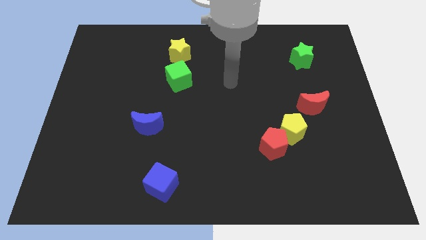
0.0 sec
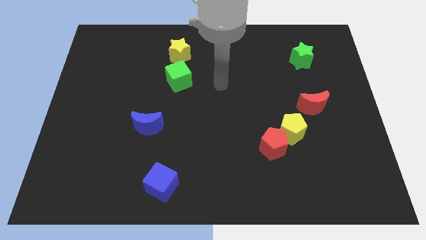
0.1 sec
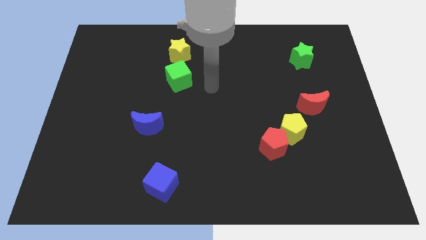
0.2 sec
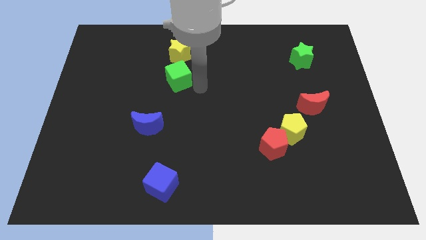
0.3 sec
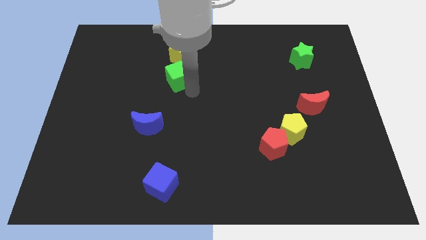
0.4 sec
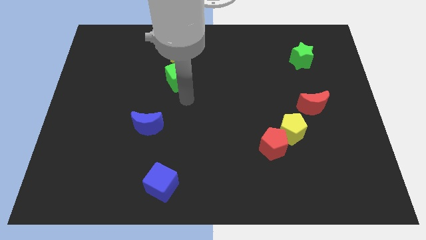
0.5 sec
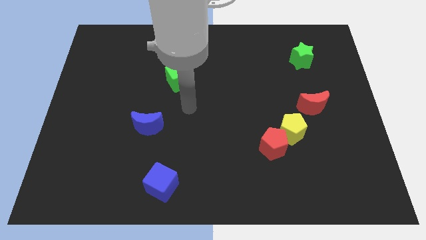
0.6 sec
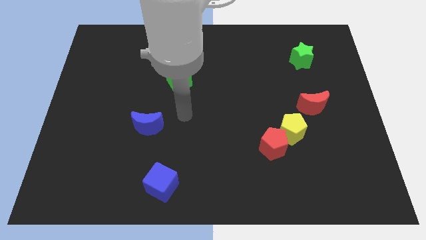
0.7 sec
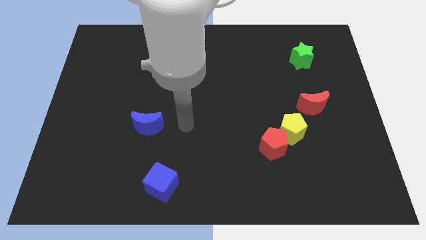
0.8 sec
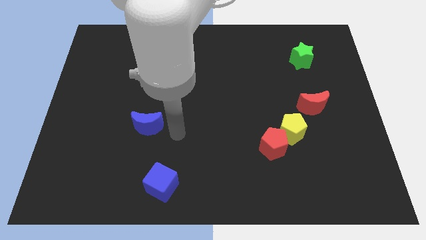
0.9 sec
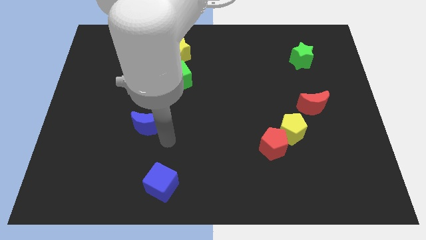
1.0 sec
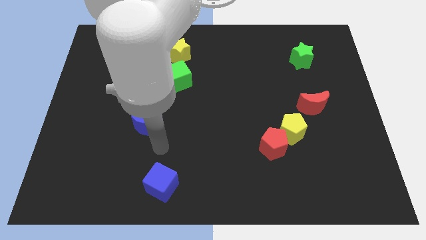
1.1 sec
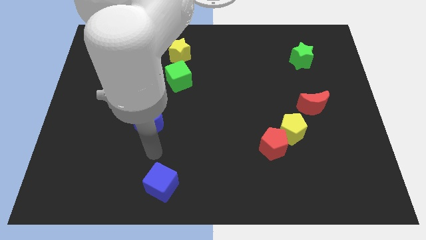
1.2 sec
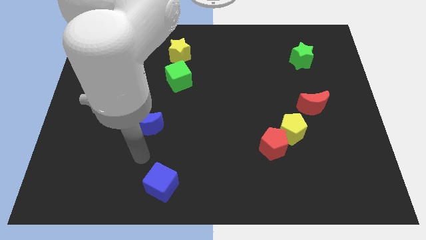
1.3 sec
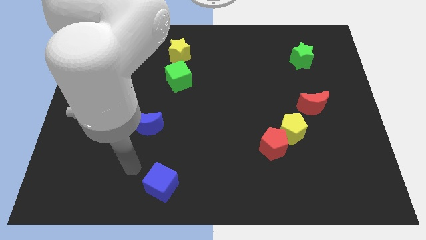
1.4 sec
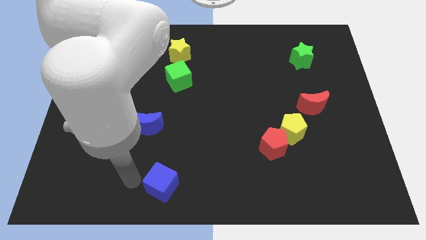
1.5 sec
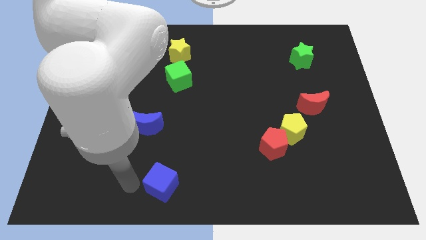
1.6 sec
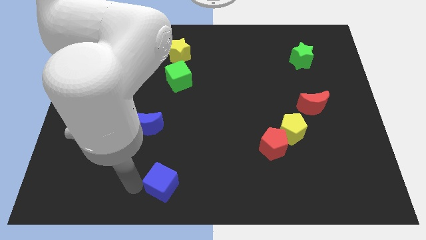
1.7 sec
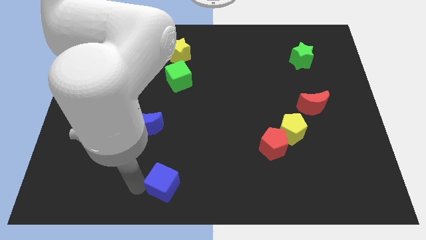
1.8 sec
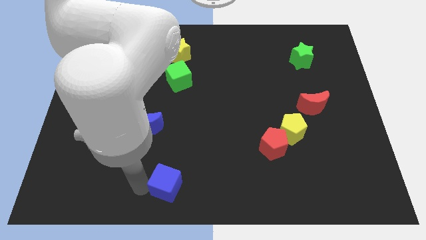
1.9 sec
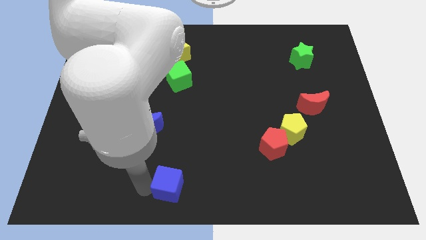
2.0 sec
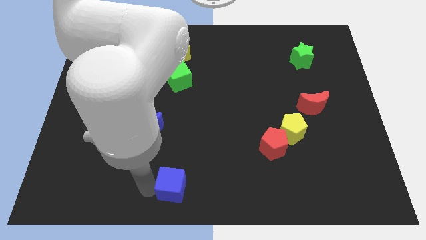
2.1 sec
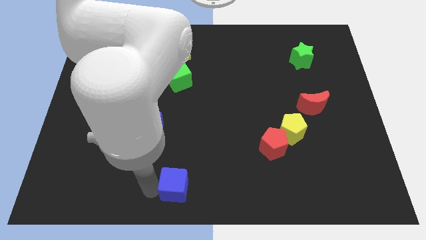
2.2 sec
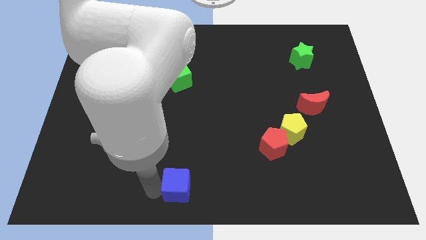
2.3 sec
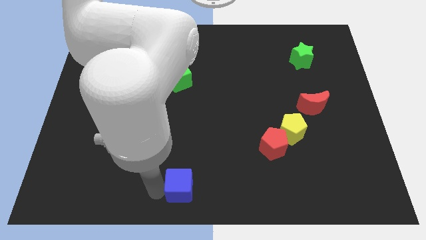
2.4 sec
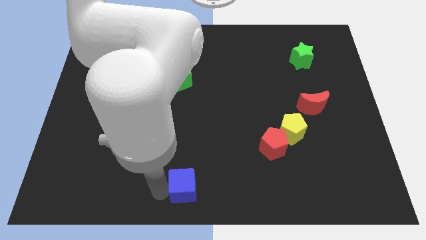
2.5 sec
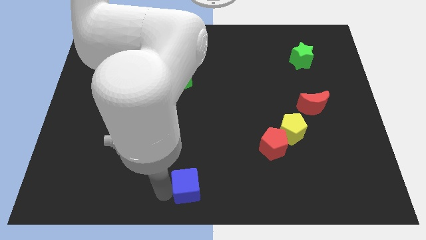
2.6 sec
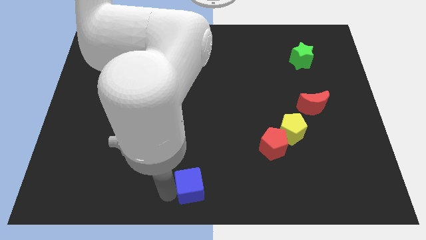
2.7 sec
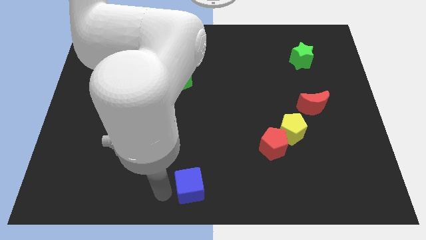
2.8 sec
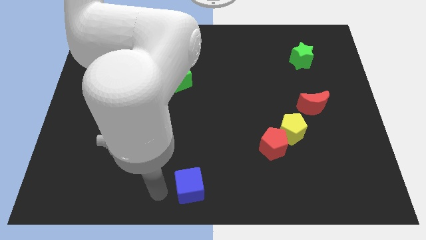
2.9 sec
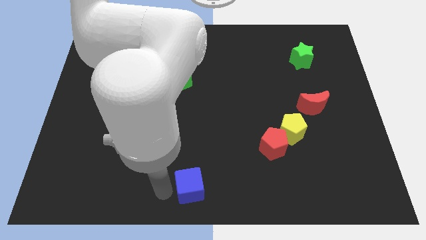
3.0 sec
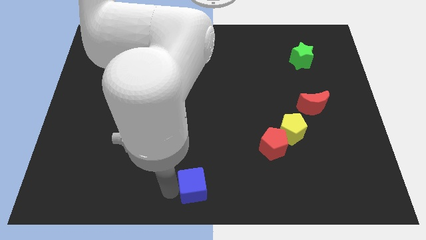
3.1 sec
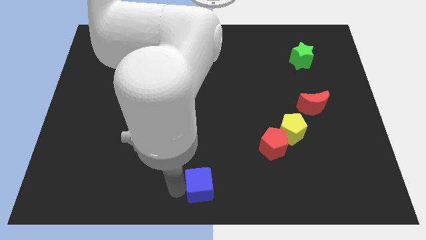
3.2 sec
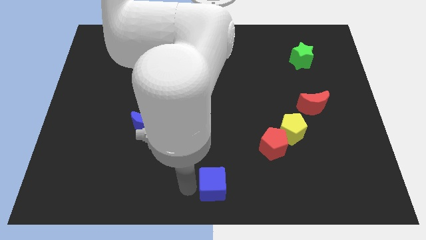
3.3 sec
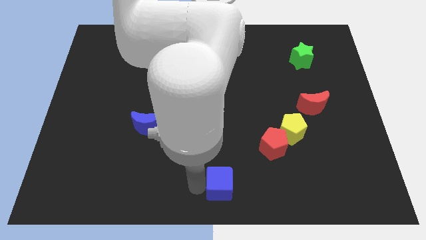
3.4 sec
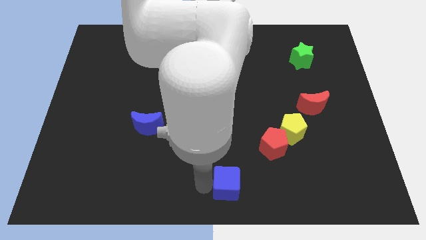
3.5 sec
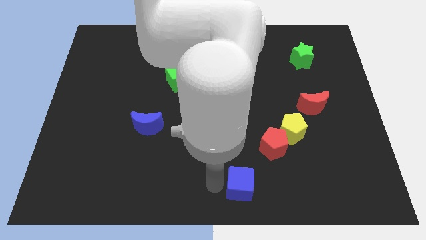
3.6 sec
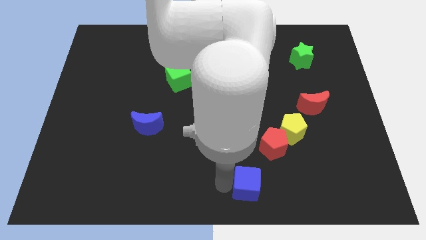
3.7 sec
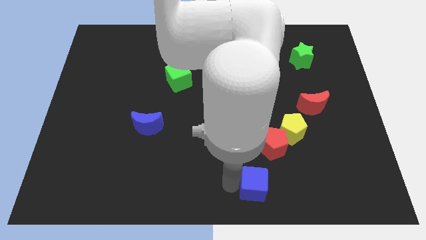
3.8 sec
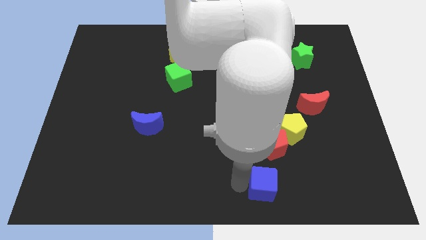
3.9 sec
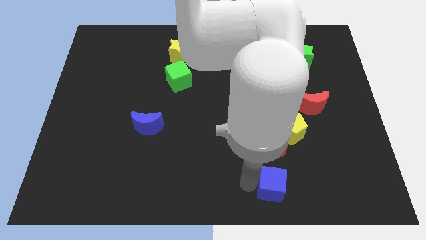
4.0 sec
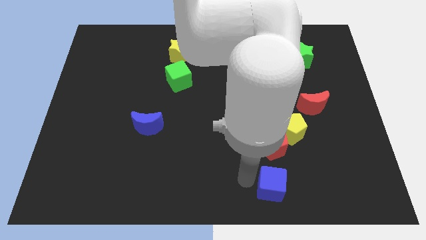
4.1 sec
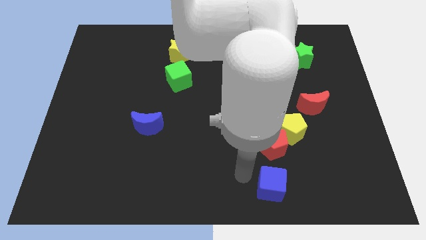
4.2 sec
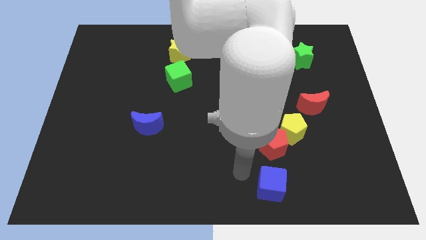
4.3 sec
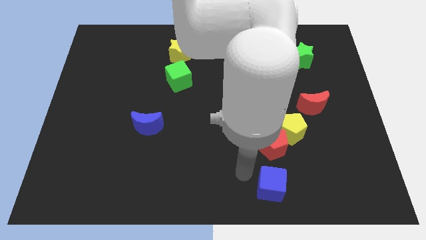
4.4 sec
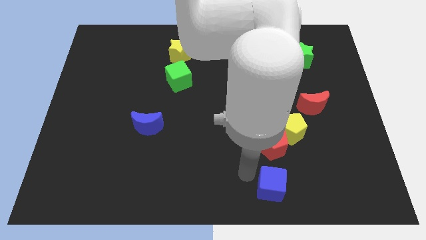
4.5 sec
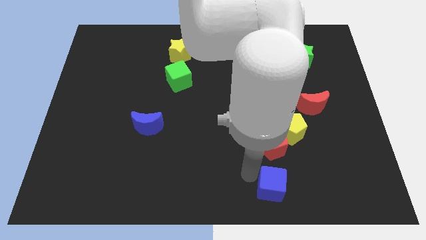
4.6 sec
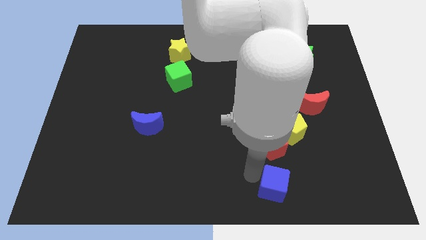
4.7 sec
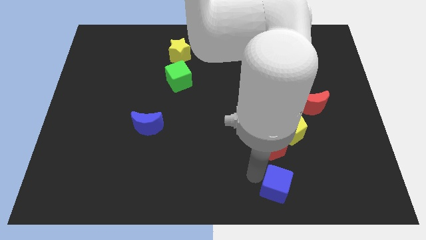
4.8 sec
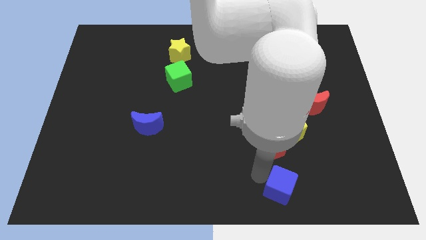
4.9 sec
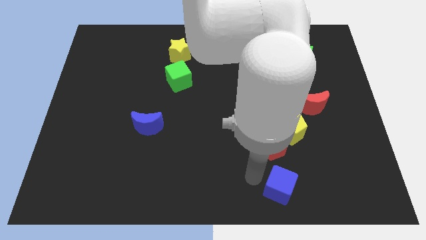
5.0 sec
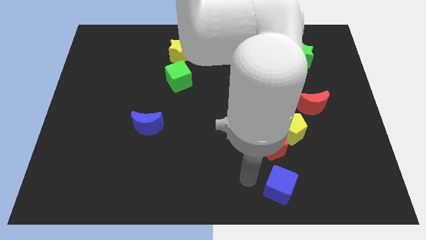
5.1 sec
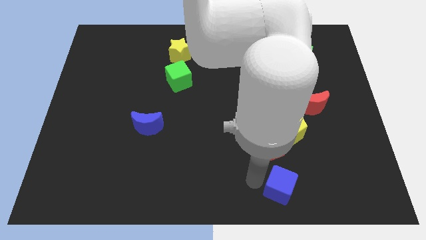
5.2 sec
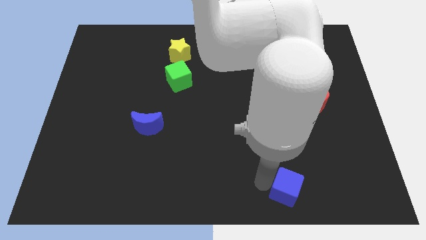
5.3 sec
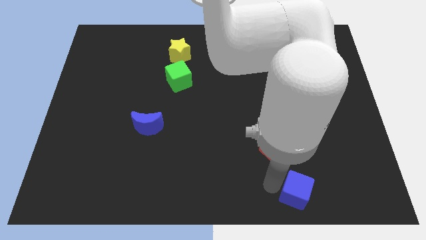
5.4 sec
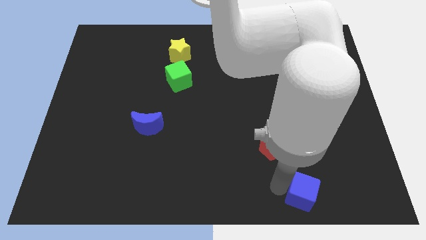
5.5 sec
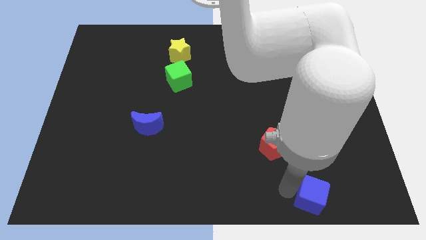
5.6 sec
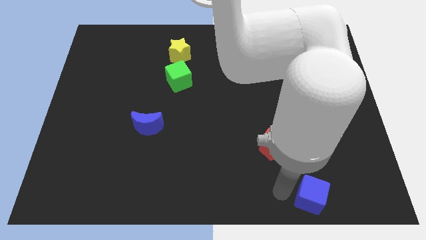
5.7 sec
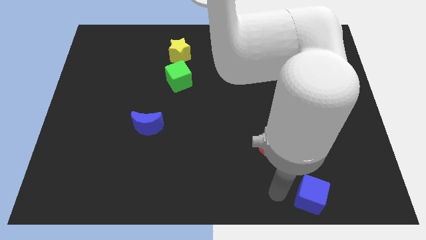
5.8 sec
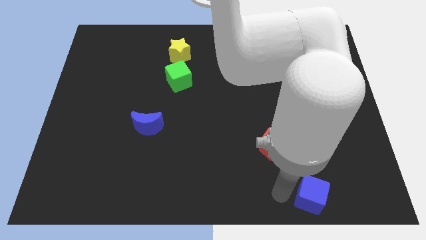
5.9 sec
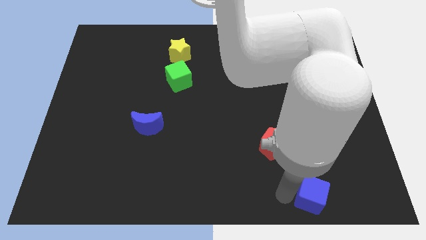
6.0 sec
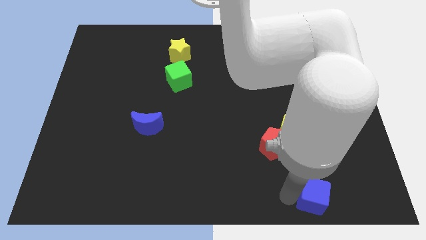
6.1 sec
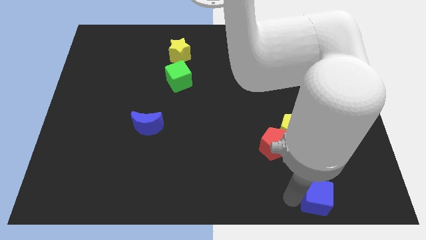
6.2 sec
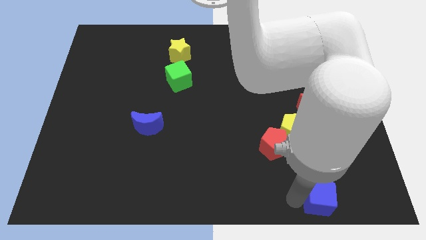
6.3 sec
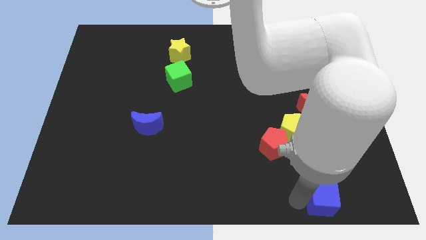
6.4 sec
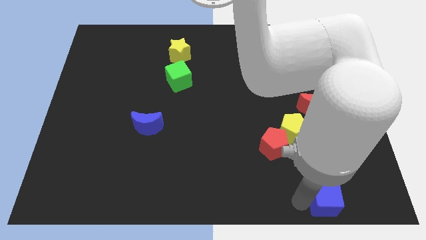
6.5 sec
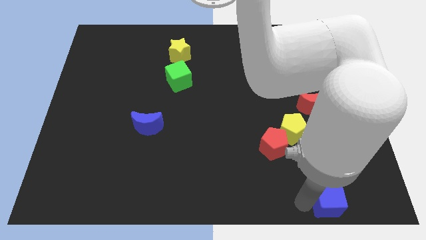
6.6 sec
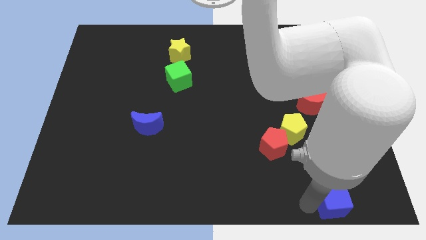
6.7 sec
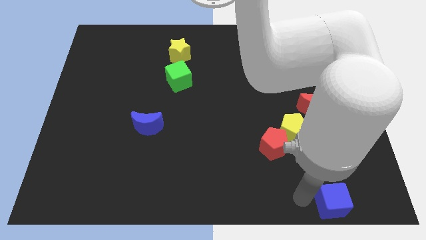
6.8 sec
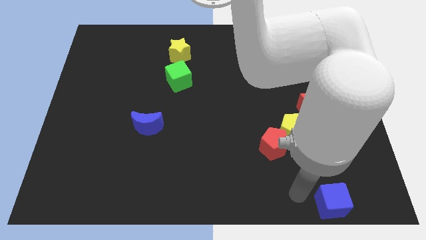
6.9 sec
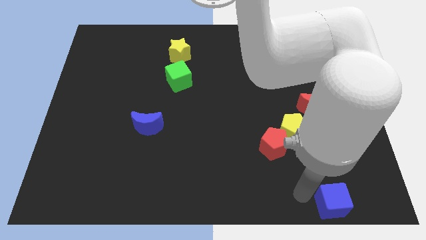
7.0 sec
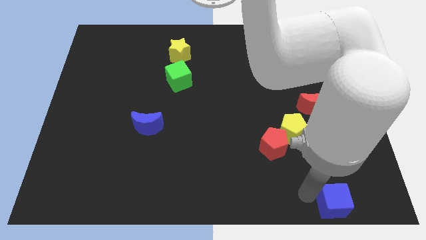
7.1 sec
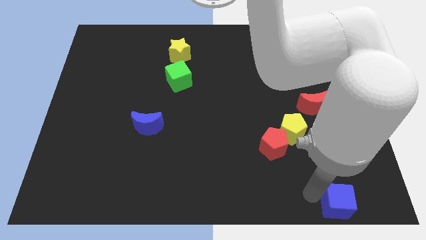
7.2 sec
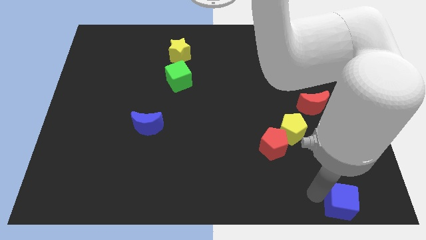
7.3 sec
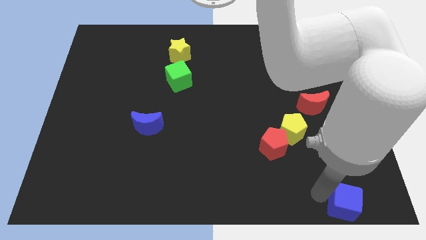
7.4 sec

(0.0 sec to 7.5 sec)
slide the blue cube to the lower right corner
